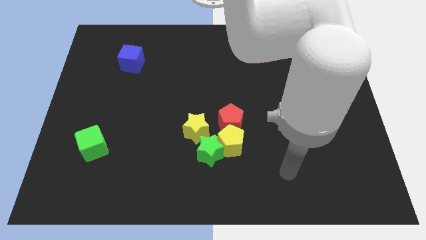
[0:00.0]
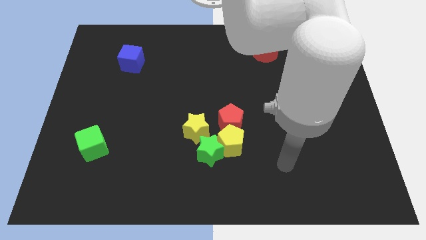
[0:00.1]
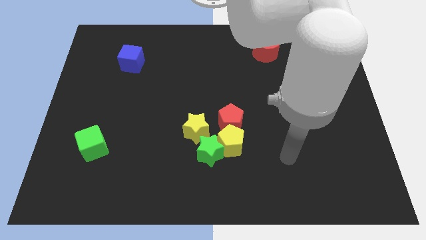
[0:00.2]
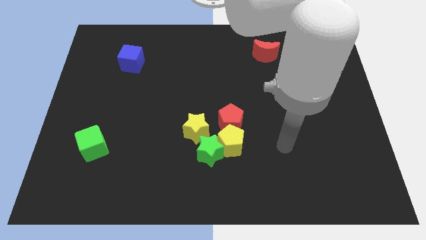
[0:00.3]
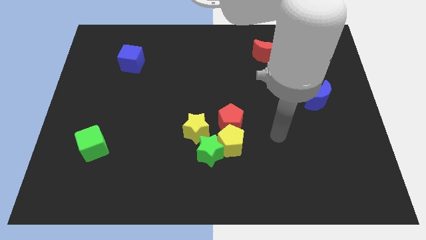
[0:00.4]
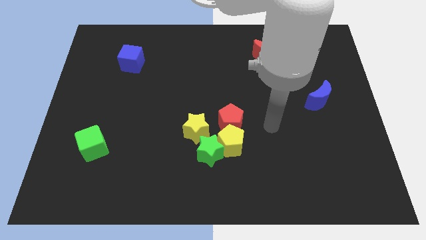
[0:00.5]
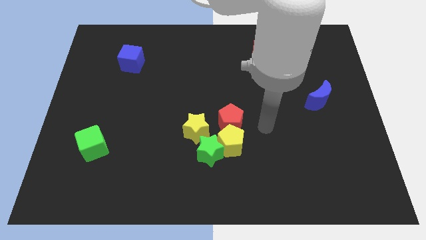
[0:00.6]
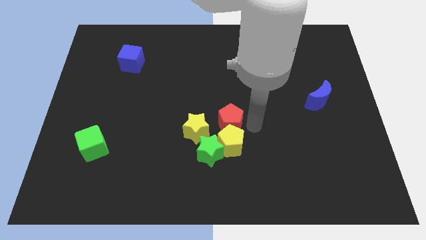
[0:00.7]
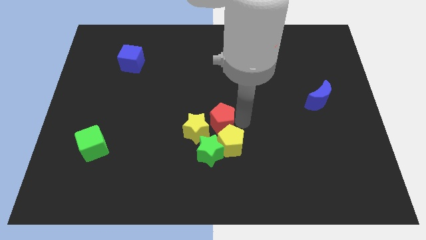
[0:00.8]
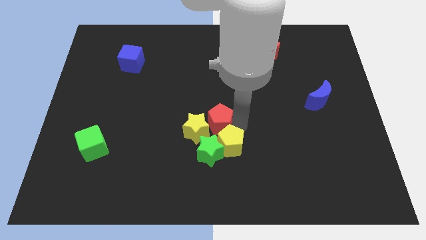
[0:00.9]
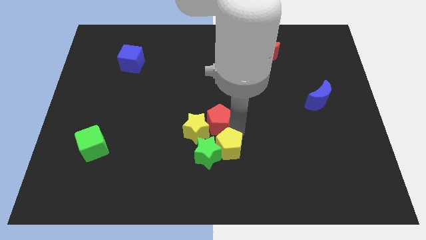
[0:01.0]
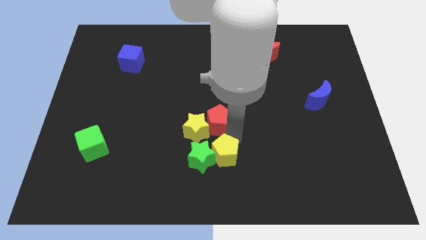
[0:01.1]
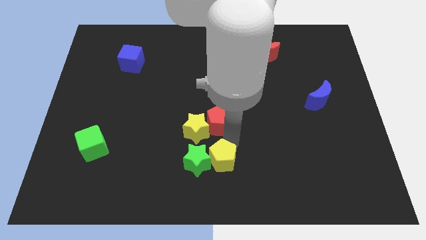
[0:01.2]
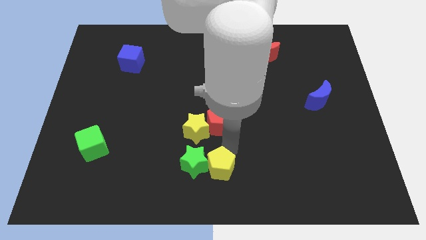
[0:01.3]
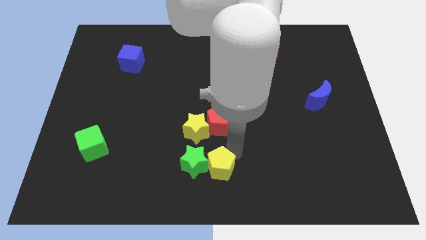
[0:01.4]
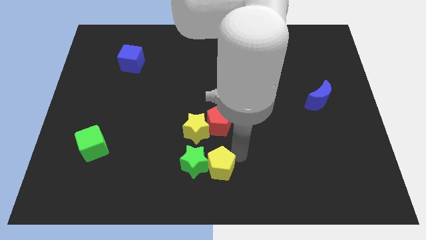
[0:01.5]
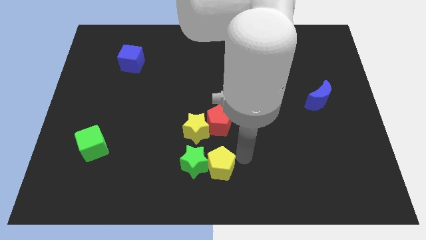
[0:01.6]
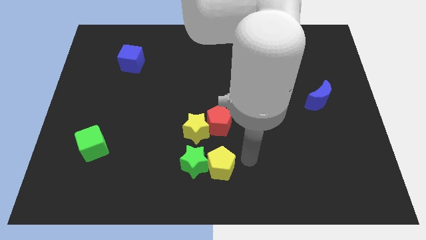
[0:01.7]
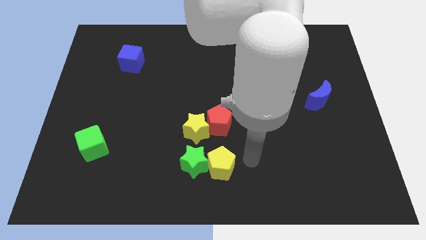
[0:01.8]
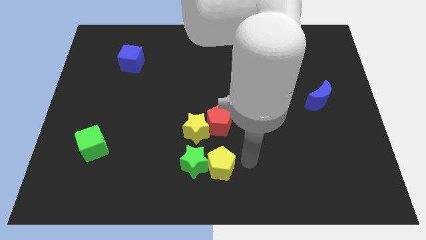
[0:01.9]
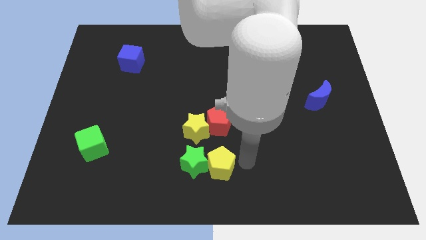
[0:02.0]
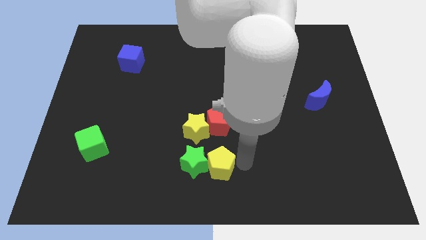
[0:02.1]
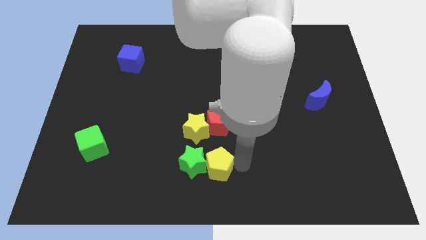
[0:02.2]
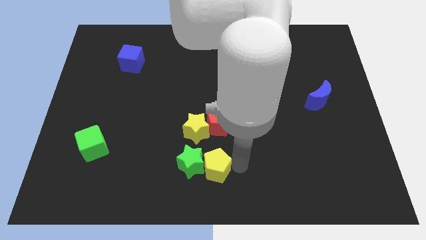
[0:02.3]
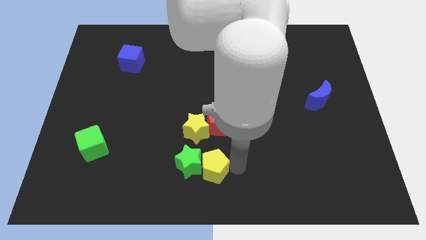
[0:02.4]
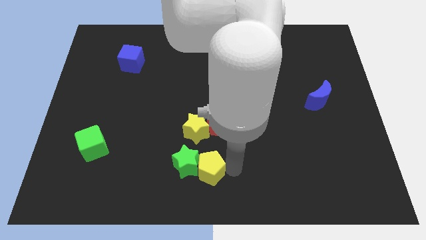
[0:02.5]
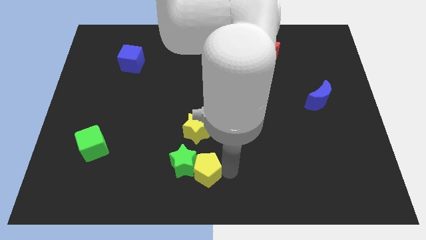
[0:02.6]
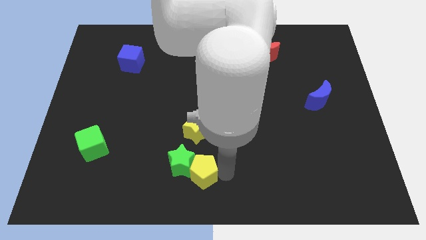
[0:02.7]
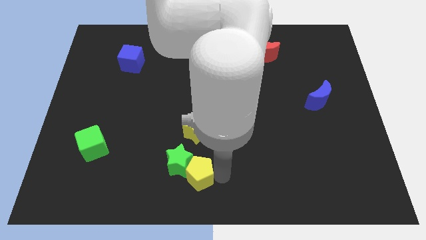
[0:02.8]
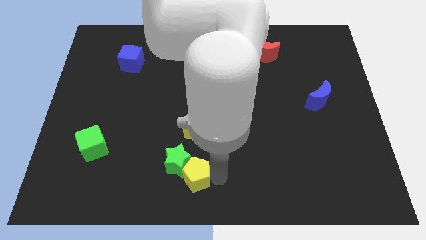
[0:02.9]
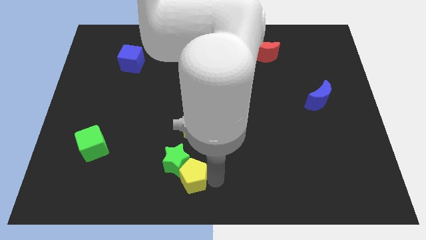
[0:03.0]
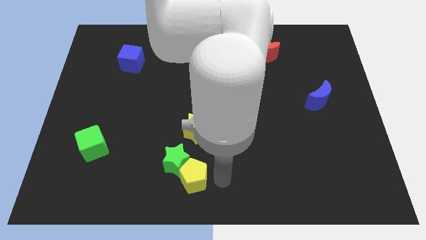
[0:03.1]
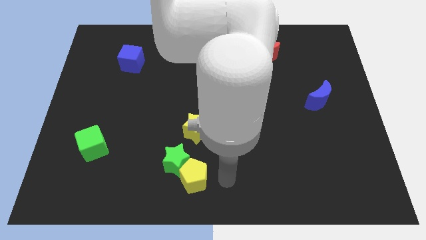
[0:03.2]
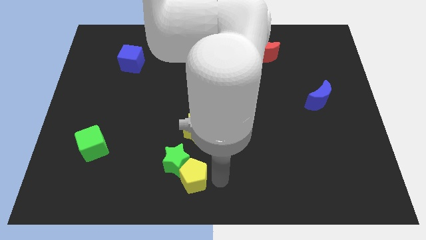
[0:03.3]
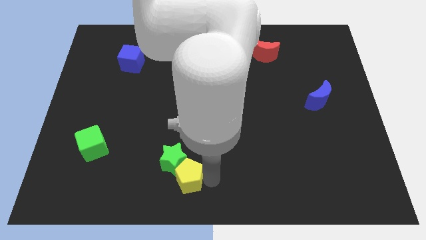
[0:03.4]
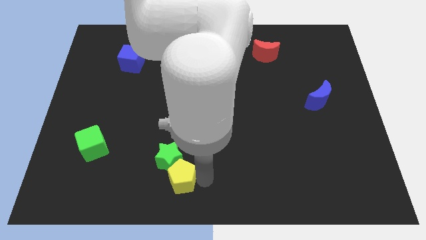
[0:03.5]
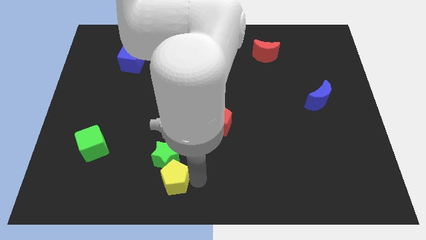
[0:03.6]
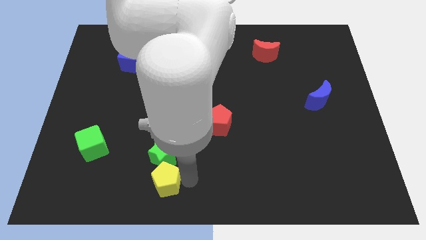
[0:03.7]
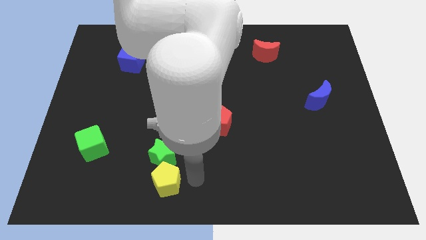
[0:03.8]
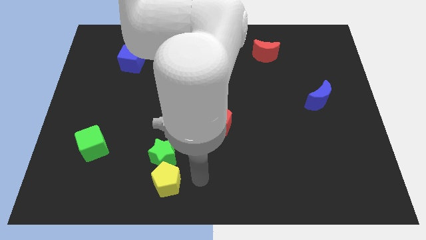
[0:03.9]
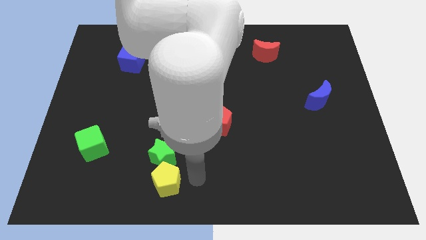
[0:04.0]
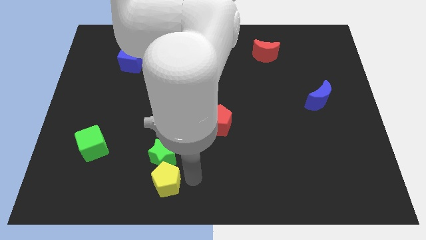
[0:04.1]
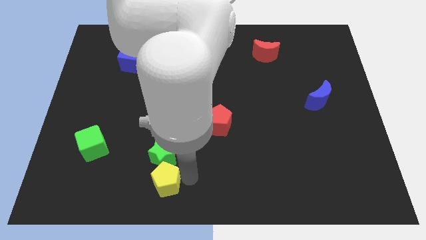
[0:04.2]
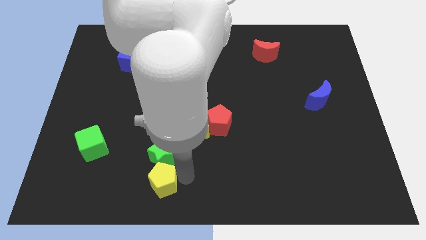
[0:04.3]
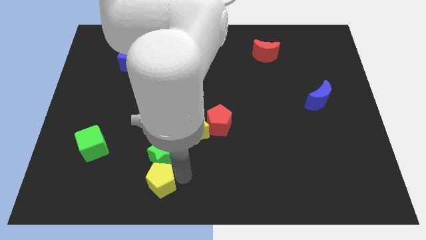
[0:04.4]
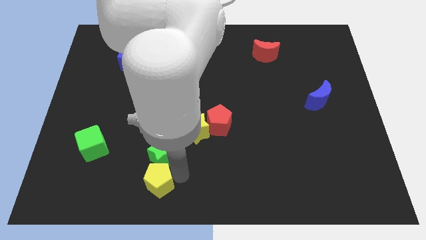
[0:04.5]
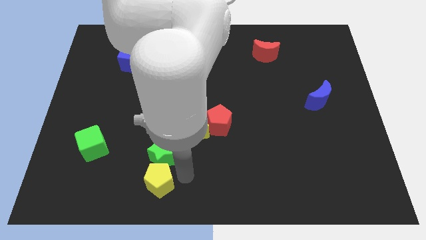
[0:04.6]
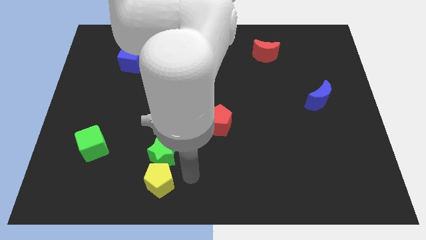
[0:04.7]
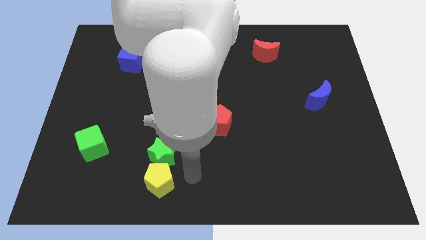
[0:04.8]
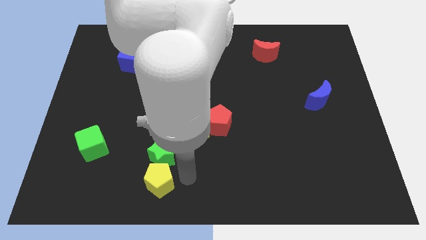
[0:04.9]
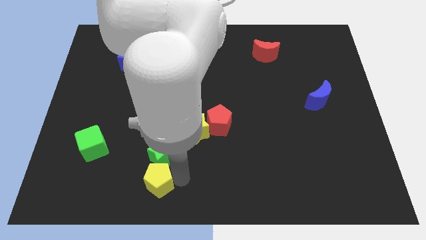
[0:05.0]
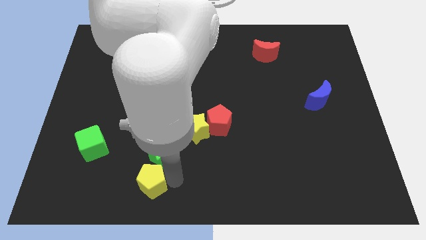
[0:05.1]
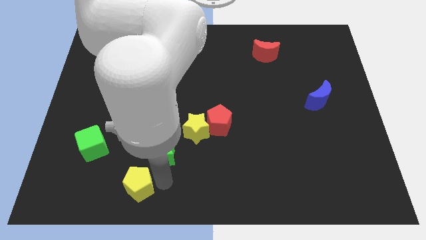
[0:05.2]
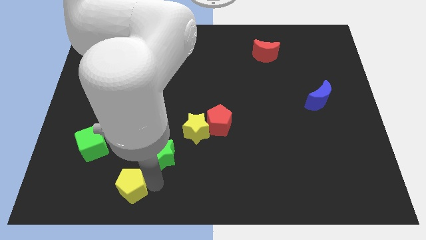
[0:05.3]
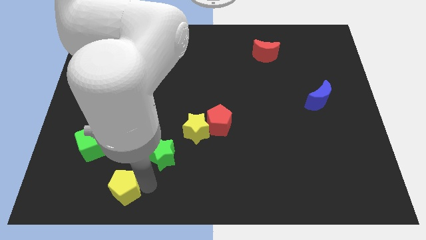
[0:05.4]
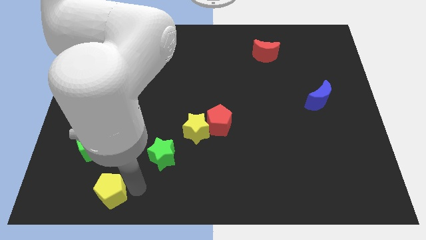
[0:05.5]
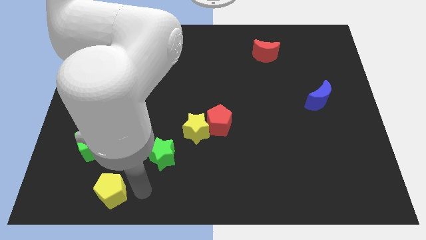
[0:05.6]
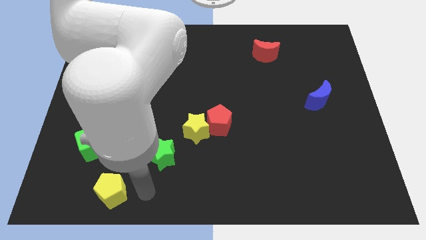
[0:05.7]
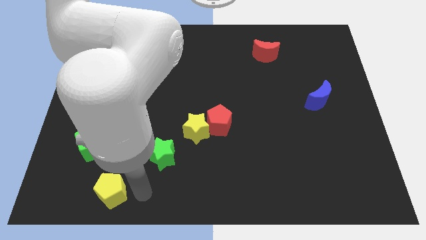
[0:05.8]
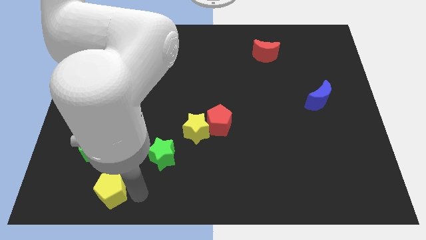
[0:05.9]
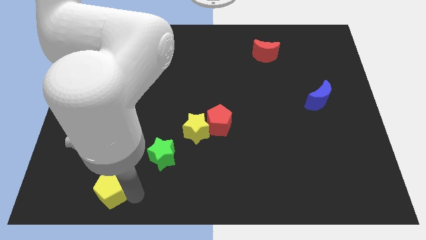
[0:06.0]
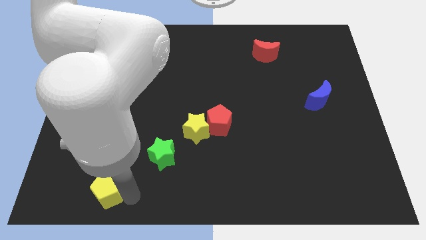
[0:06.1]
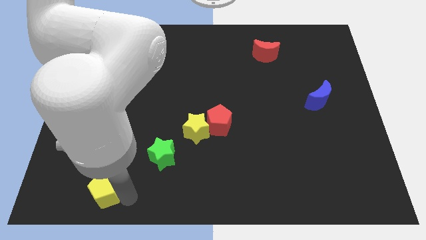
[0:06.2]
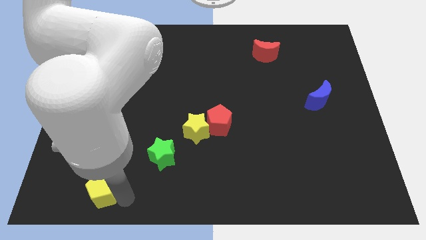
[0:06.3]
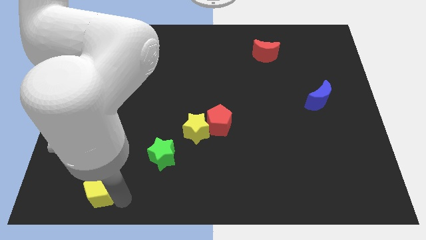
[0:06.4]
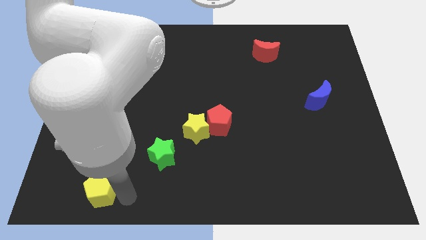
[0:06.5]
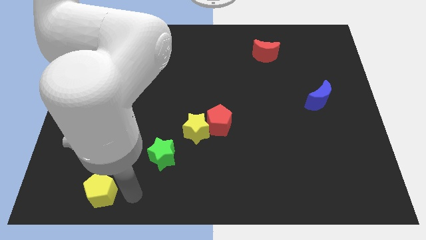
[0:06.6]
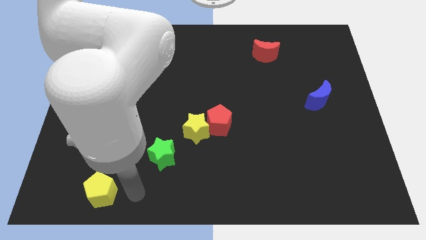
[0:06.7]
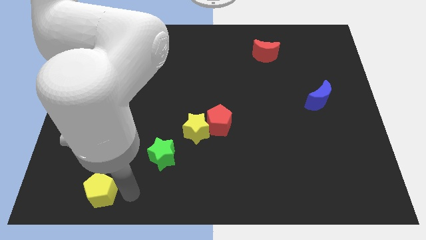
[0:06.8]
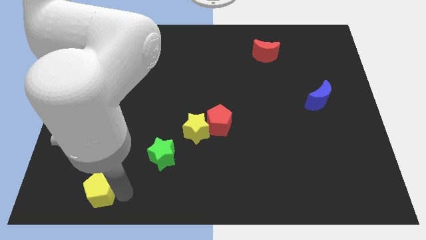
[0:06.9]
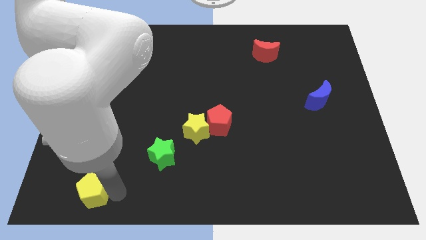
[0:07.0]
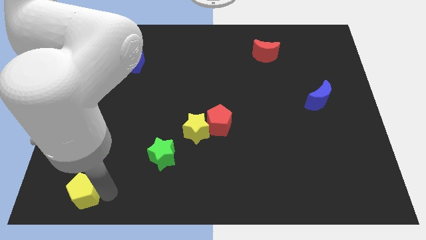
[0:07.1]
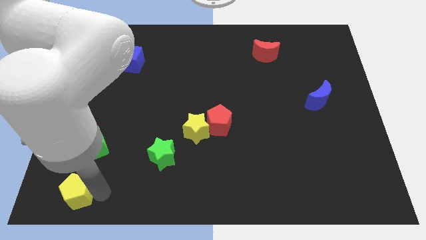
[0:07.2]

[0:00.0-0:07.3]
put the yellow pentagon to the bottom left of the board
